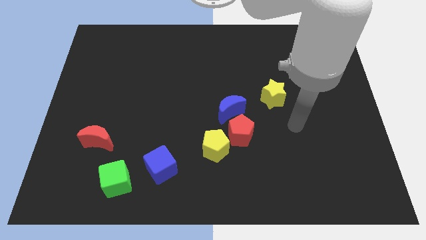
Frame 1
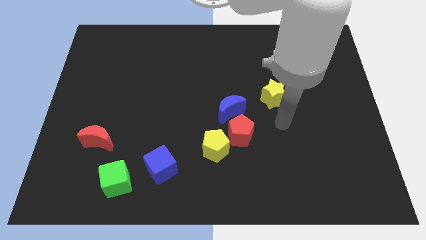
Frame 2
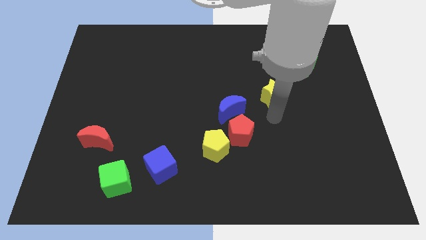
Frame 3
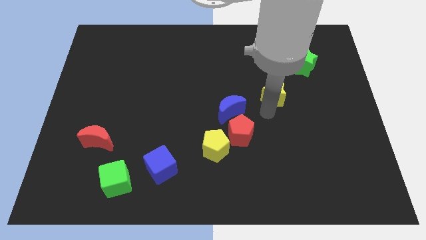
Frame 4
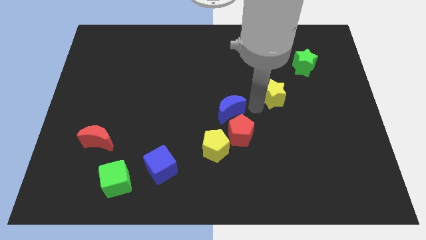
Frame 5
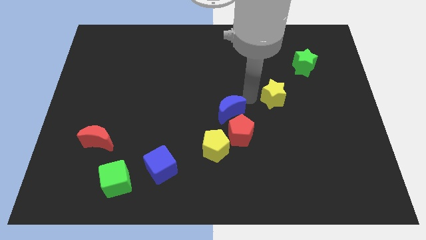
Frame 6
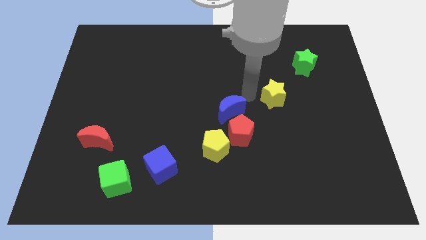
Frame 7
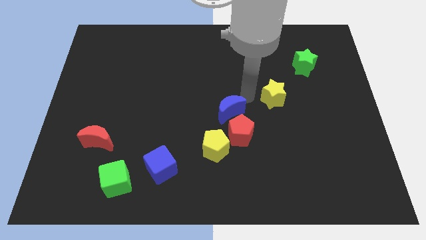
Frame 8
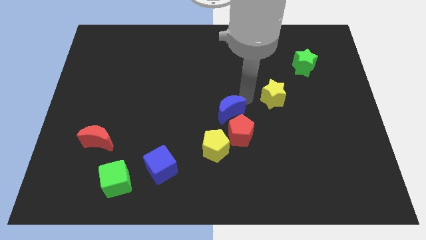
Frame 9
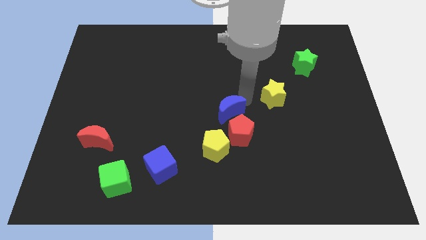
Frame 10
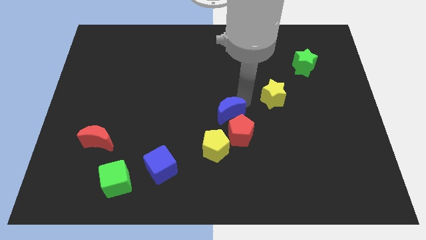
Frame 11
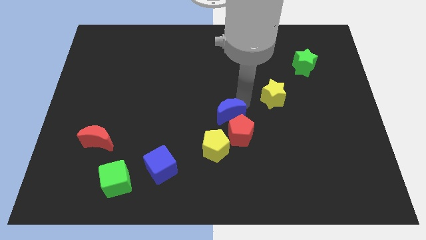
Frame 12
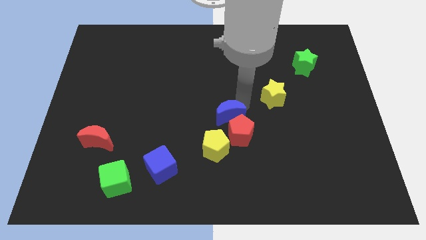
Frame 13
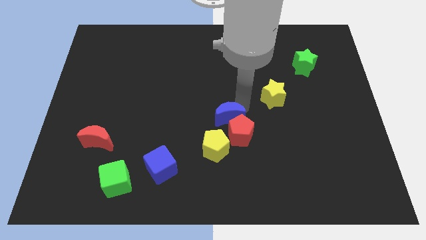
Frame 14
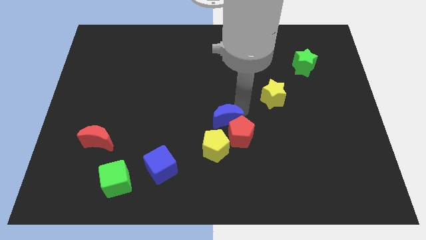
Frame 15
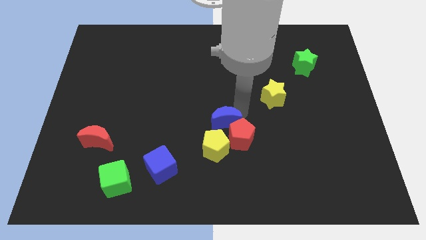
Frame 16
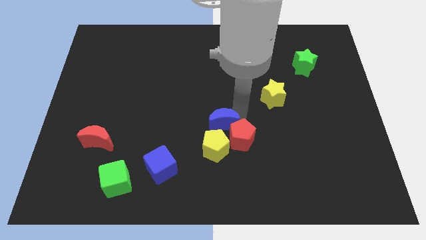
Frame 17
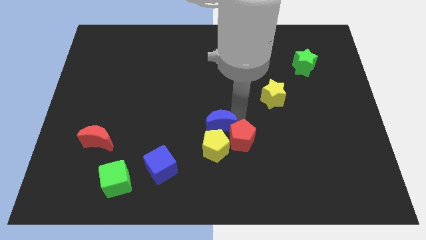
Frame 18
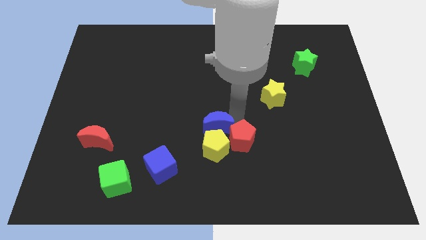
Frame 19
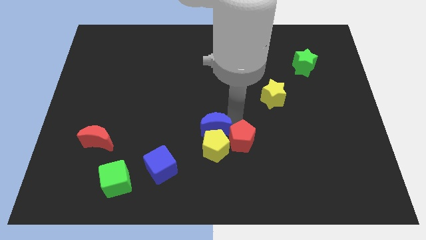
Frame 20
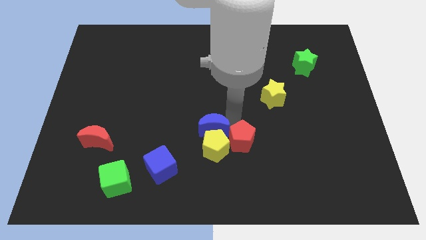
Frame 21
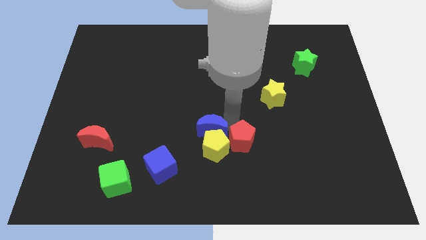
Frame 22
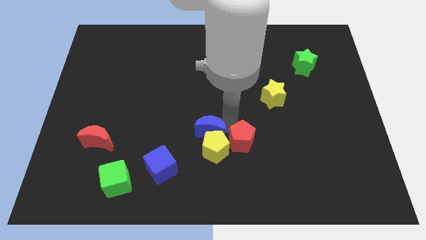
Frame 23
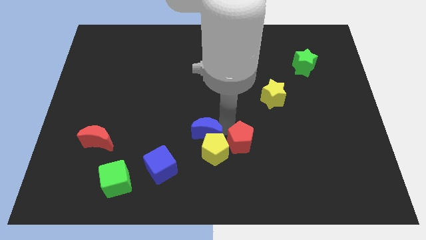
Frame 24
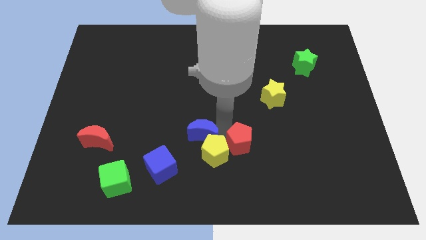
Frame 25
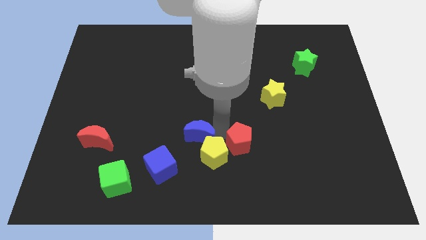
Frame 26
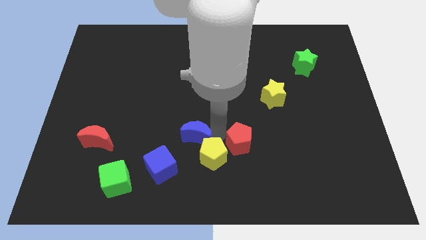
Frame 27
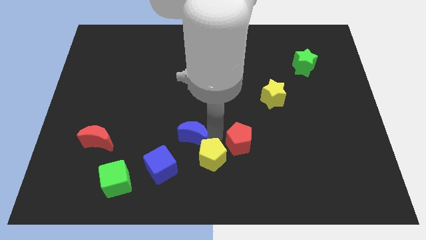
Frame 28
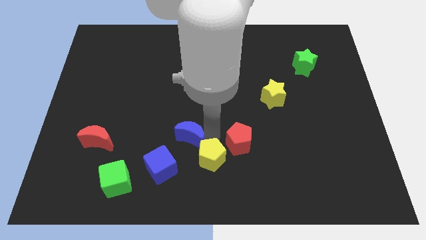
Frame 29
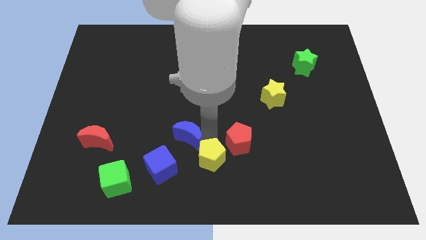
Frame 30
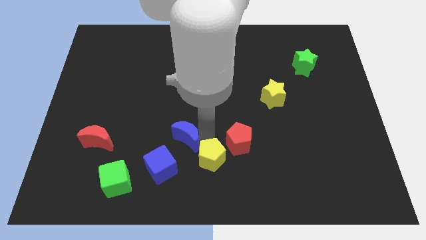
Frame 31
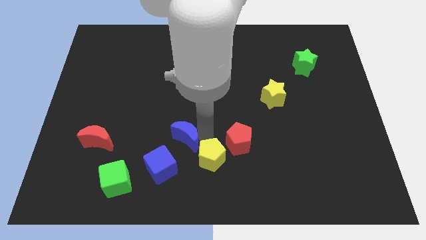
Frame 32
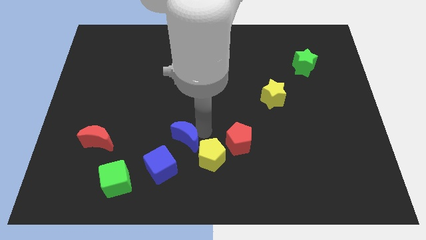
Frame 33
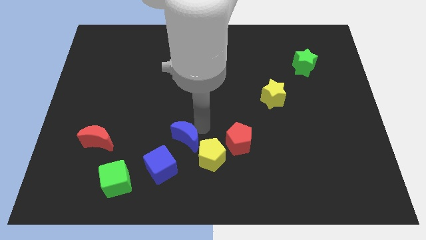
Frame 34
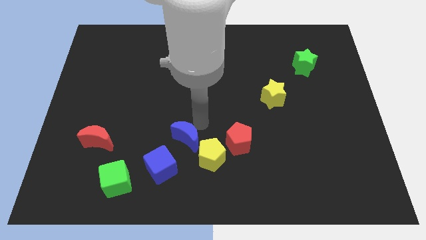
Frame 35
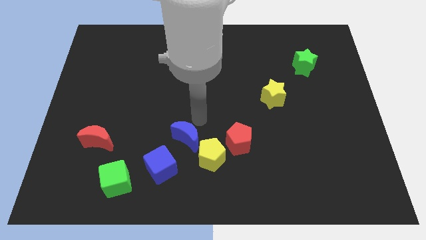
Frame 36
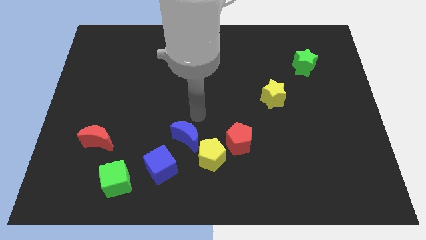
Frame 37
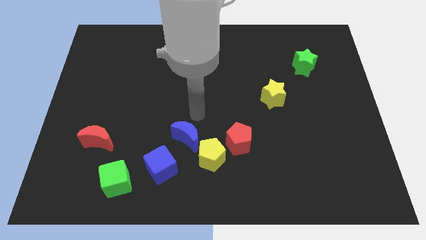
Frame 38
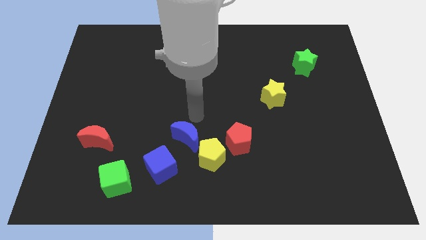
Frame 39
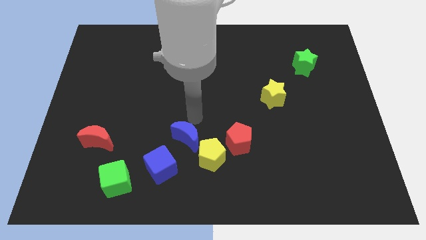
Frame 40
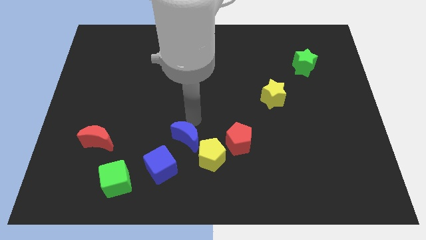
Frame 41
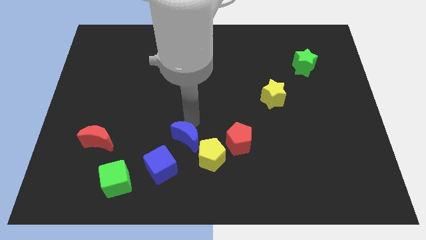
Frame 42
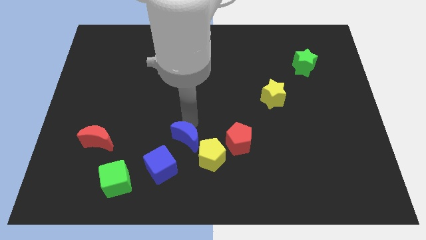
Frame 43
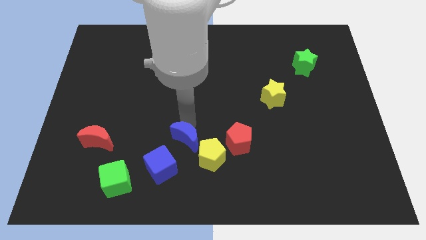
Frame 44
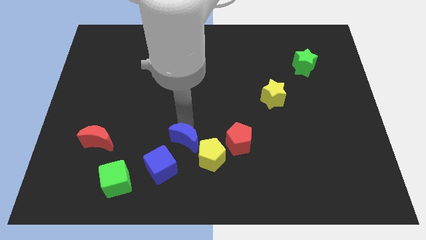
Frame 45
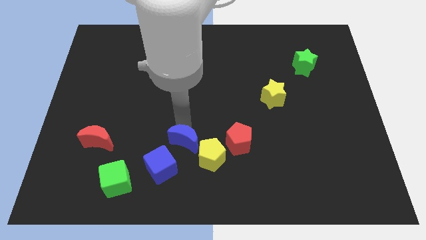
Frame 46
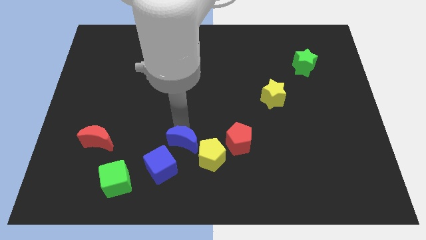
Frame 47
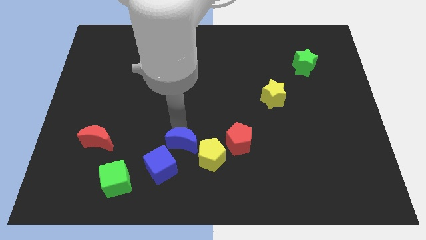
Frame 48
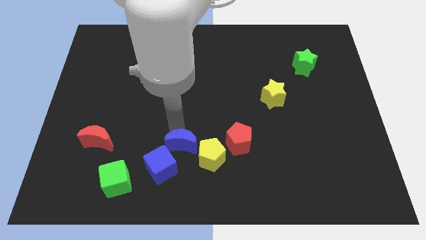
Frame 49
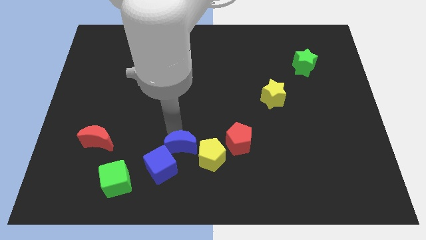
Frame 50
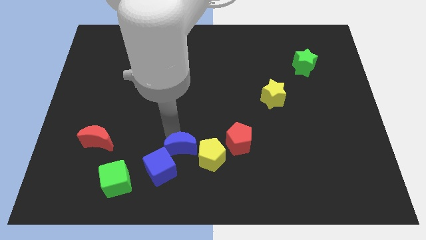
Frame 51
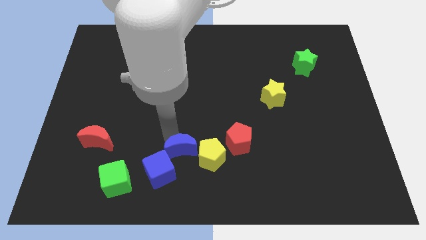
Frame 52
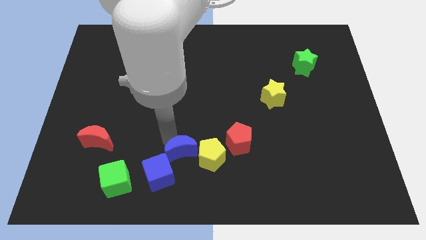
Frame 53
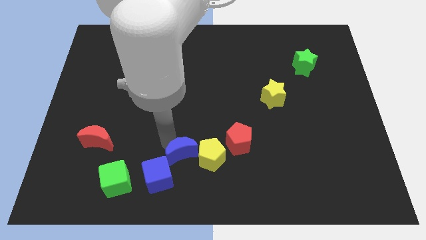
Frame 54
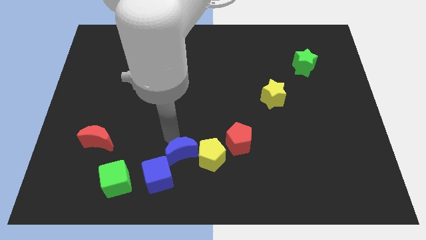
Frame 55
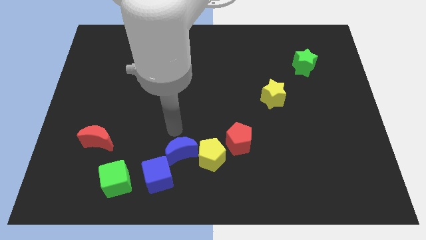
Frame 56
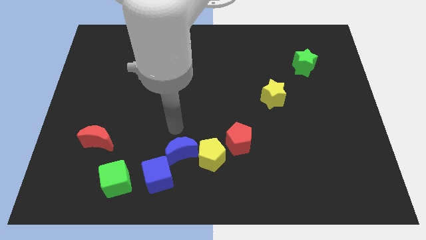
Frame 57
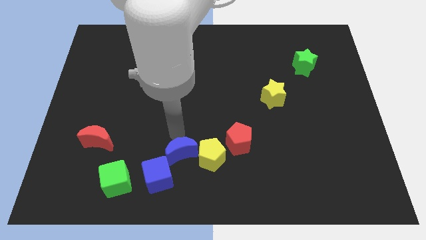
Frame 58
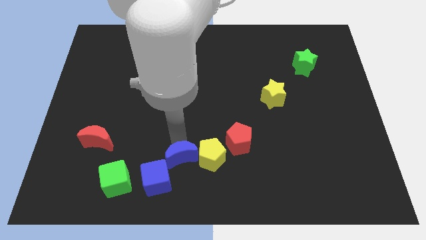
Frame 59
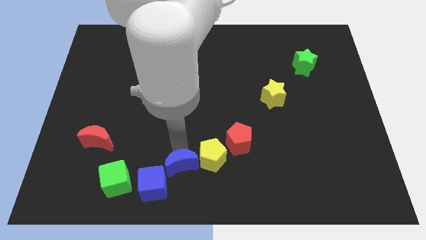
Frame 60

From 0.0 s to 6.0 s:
put the blue moon to the bottom side

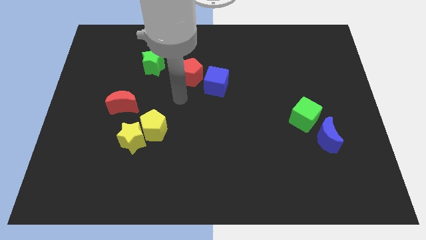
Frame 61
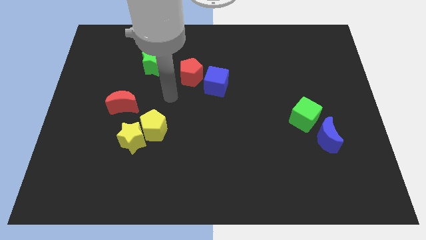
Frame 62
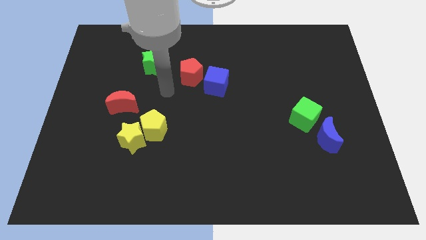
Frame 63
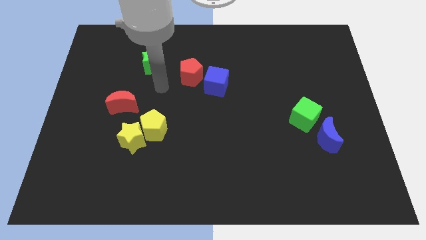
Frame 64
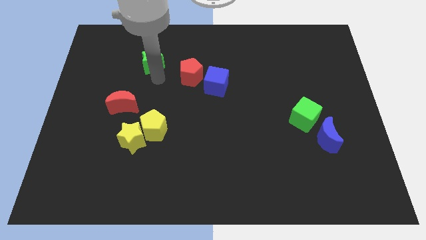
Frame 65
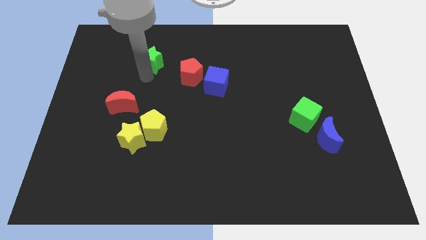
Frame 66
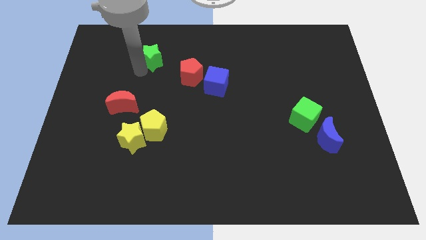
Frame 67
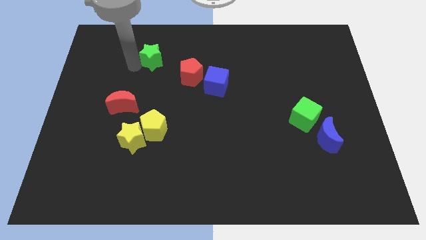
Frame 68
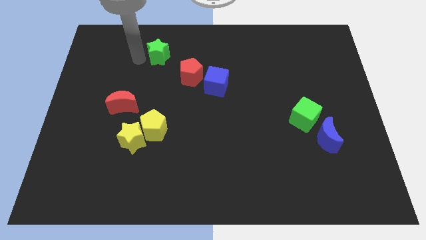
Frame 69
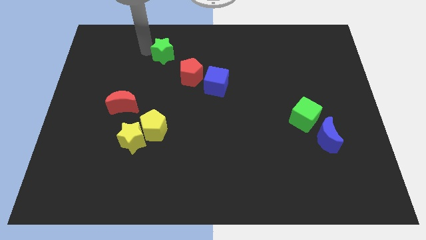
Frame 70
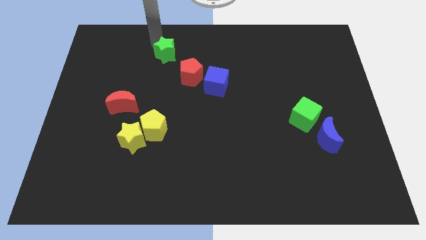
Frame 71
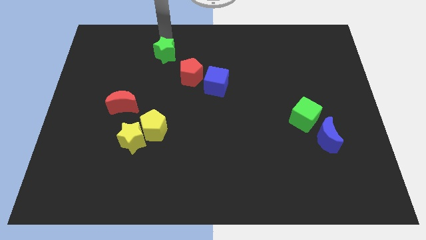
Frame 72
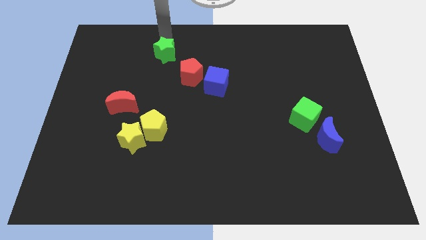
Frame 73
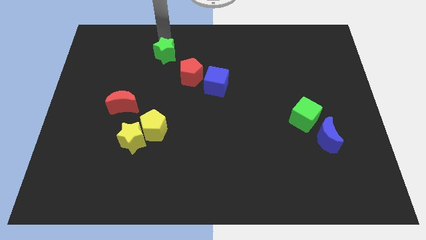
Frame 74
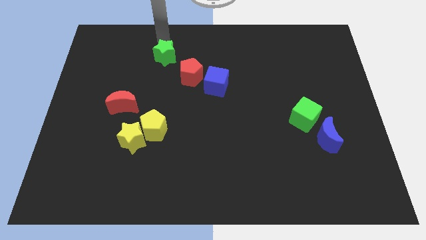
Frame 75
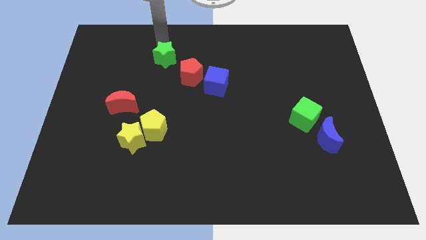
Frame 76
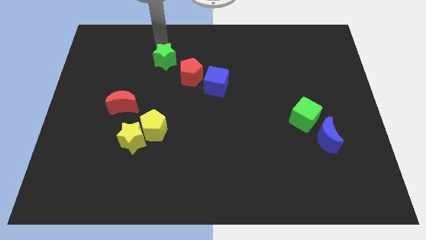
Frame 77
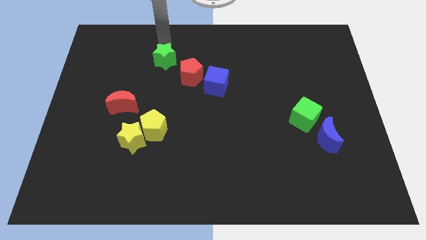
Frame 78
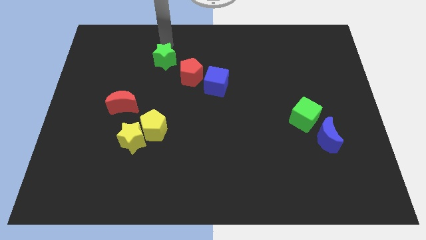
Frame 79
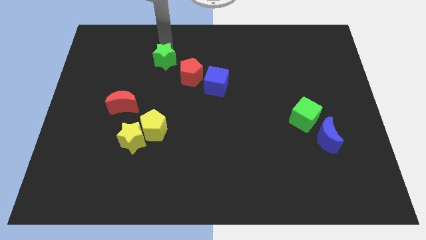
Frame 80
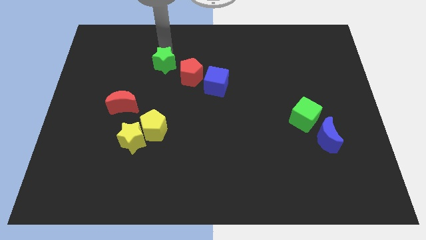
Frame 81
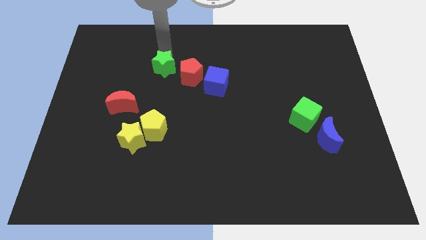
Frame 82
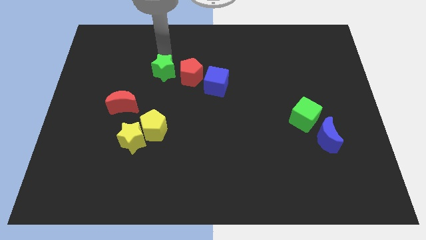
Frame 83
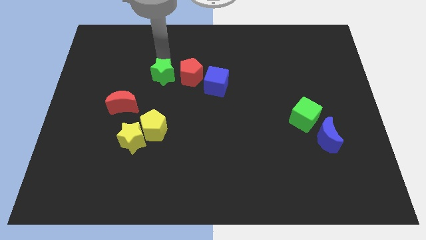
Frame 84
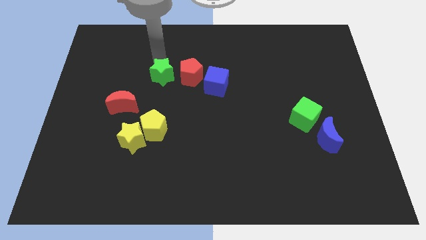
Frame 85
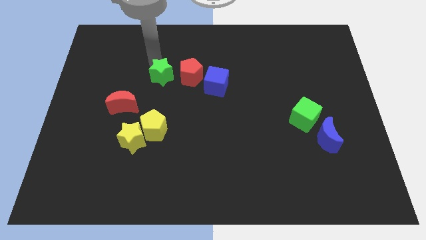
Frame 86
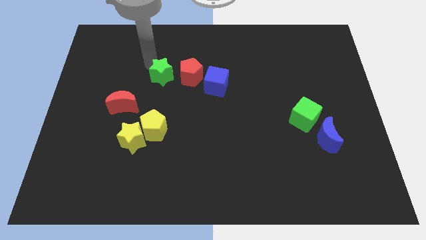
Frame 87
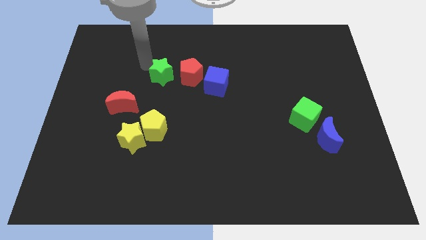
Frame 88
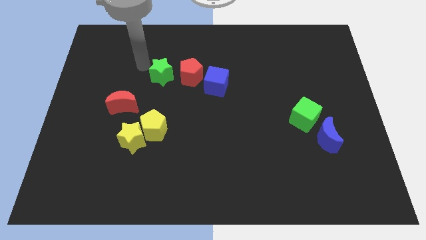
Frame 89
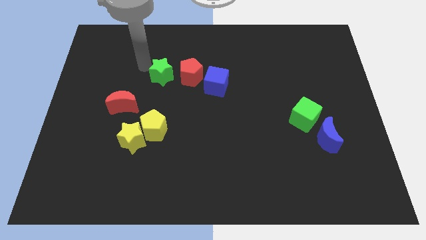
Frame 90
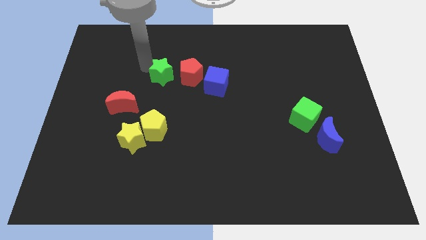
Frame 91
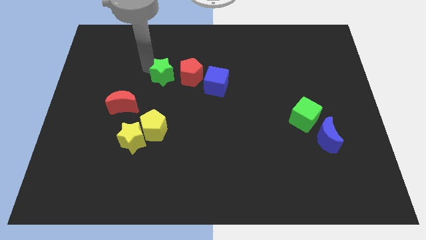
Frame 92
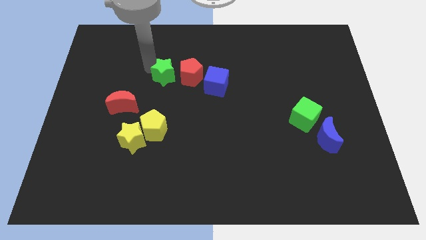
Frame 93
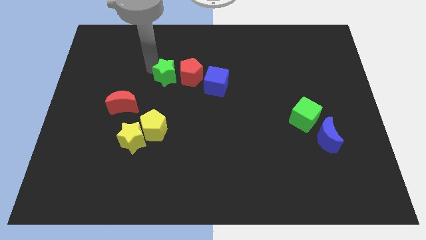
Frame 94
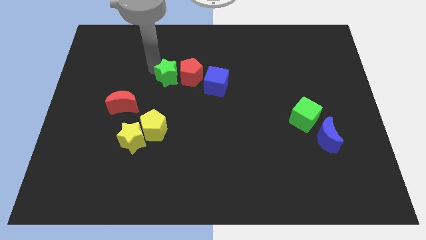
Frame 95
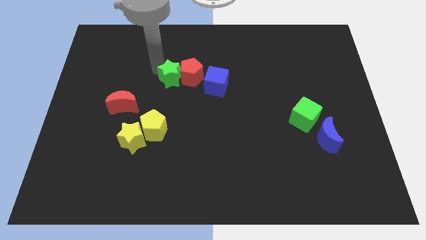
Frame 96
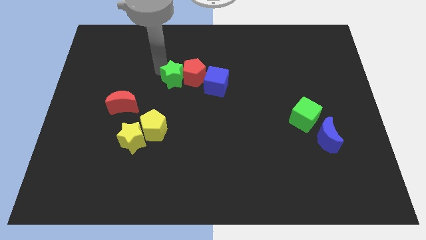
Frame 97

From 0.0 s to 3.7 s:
move the green star to the middle
